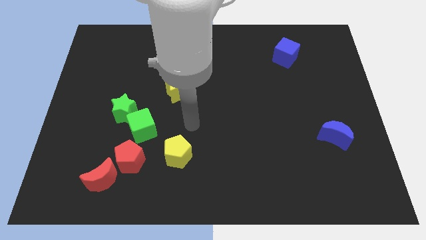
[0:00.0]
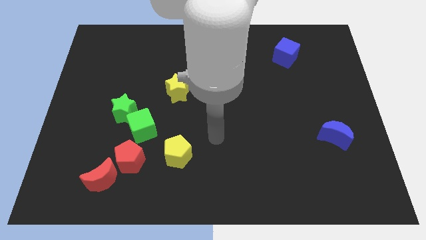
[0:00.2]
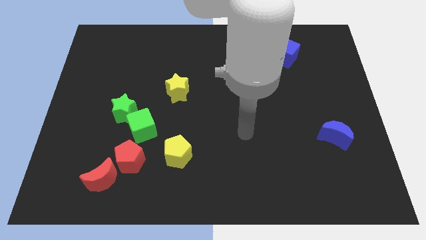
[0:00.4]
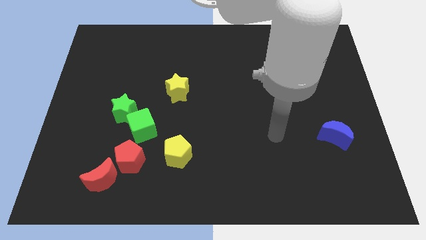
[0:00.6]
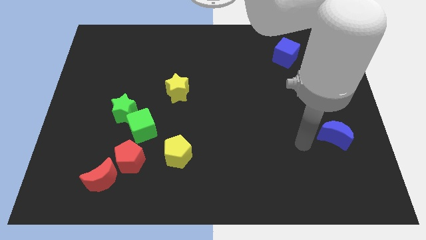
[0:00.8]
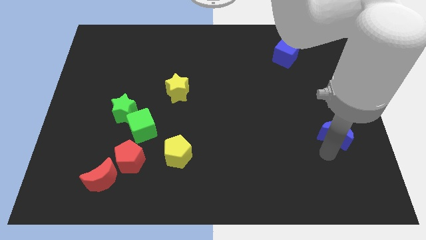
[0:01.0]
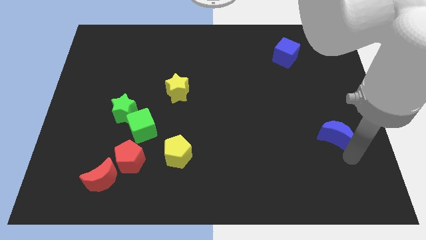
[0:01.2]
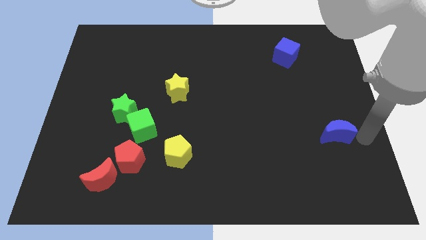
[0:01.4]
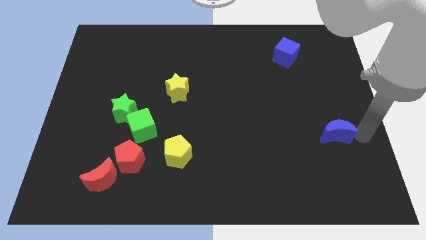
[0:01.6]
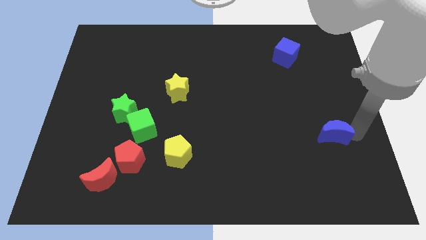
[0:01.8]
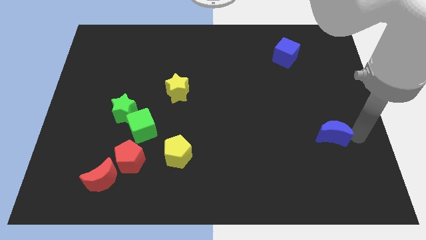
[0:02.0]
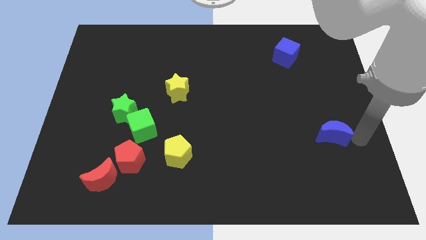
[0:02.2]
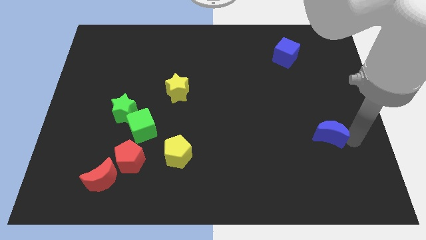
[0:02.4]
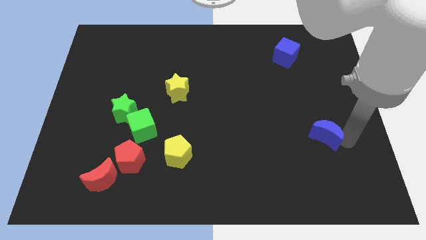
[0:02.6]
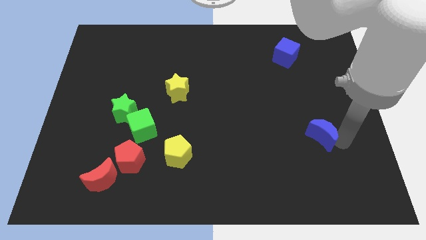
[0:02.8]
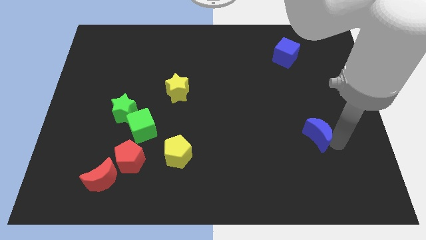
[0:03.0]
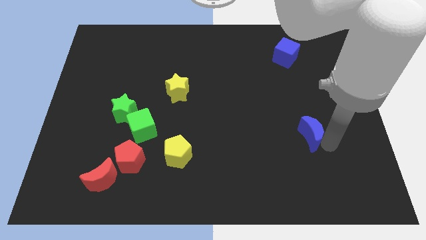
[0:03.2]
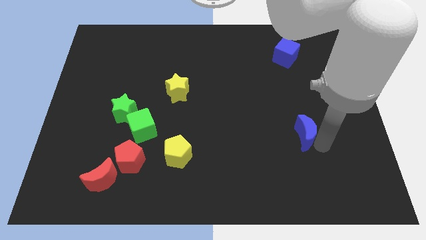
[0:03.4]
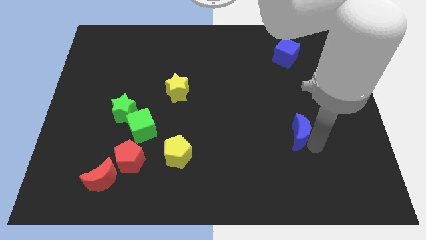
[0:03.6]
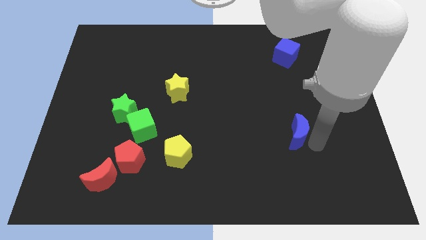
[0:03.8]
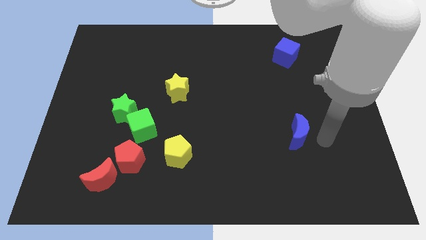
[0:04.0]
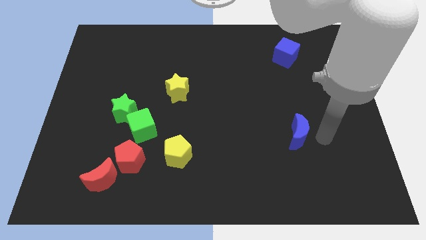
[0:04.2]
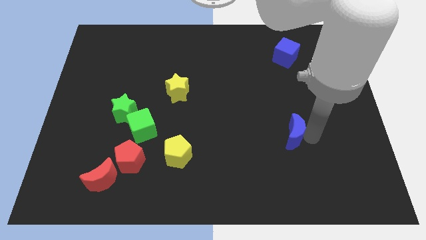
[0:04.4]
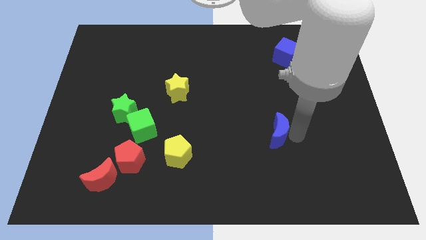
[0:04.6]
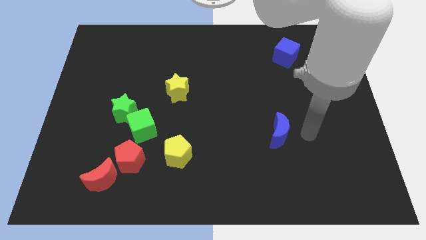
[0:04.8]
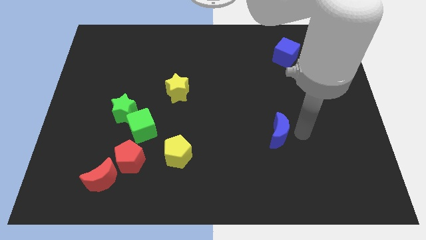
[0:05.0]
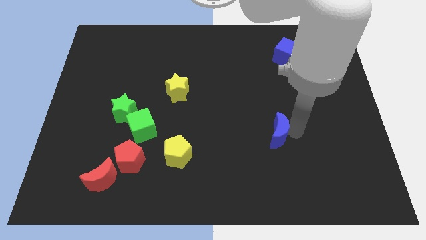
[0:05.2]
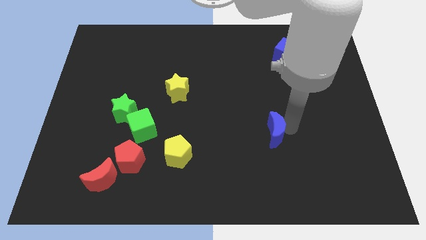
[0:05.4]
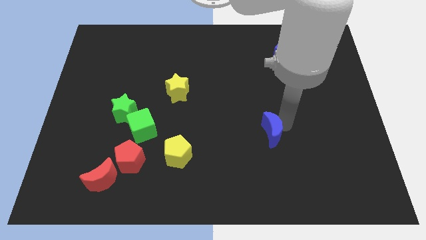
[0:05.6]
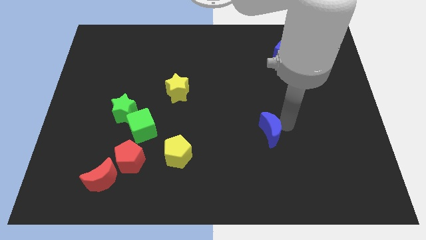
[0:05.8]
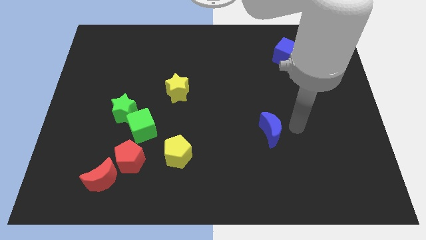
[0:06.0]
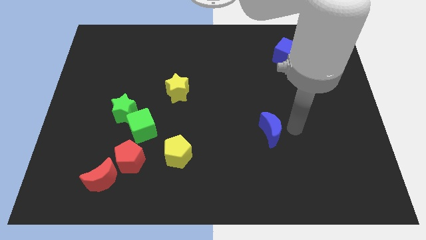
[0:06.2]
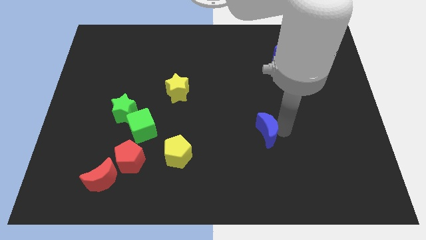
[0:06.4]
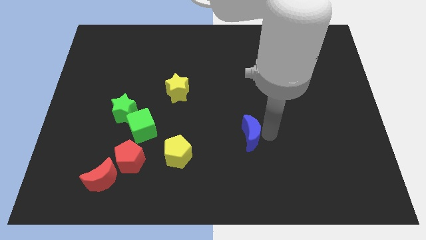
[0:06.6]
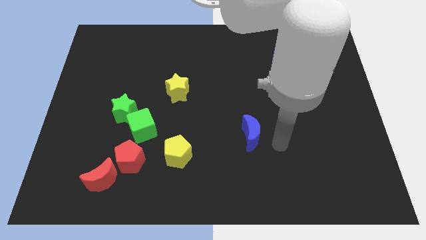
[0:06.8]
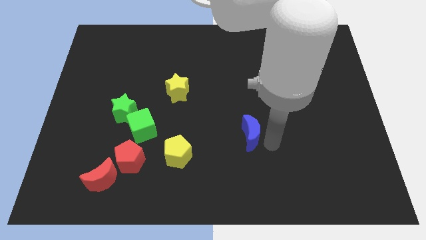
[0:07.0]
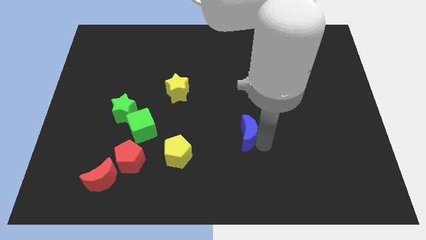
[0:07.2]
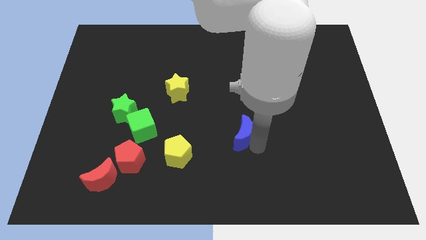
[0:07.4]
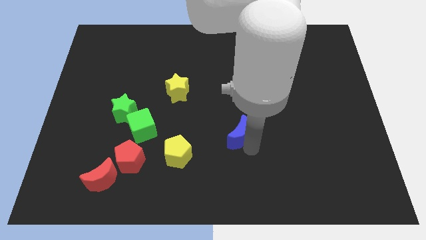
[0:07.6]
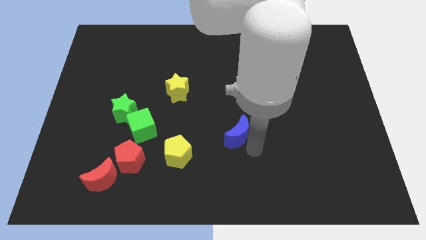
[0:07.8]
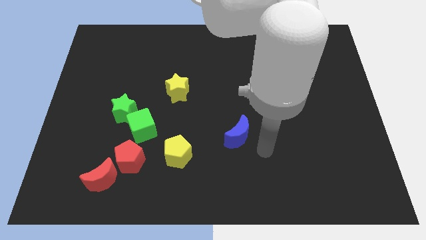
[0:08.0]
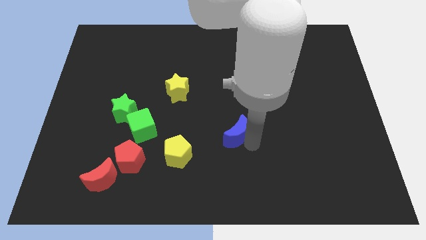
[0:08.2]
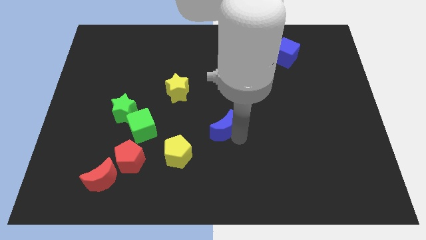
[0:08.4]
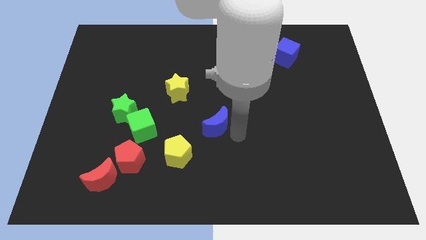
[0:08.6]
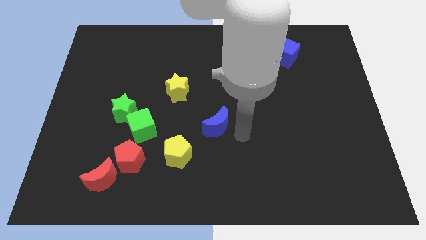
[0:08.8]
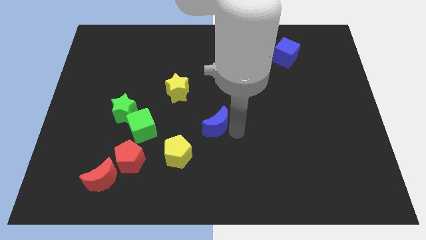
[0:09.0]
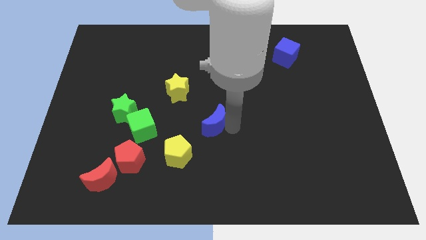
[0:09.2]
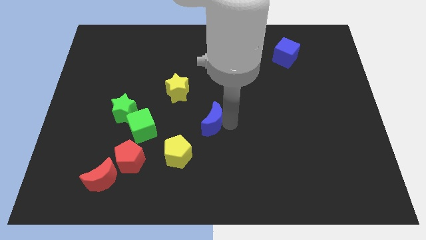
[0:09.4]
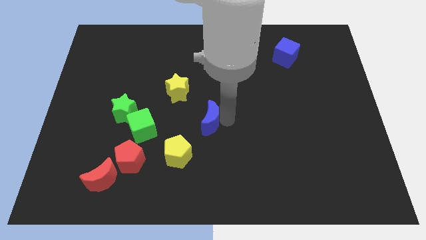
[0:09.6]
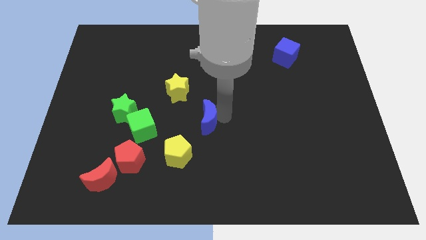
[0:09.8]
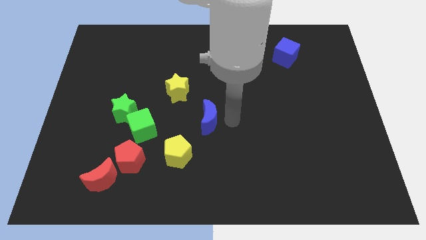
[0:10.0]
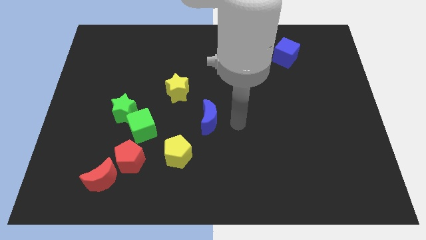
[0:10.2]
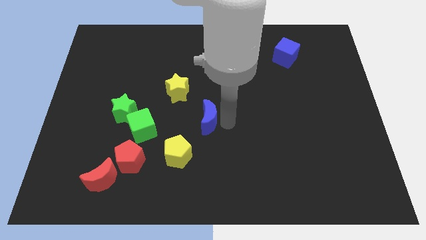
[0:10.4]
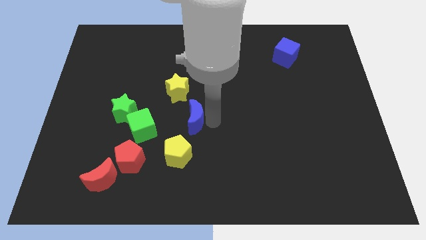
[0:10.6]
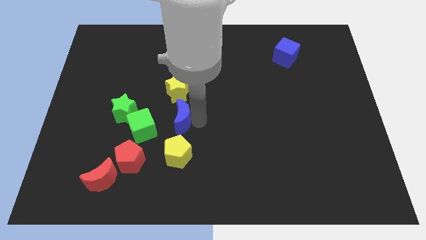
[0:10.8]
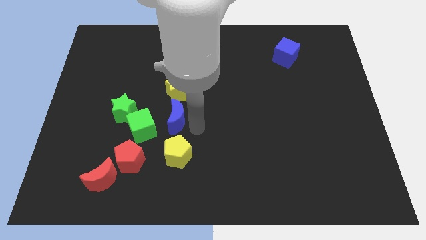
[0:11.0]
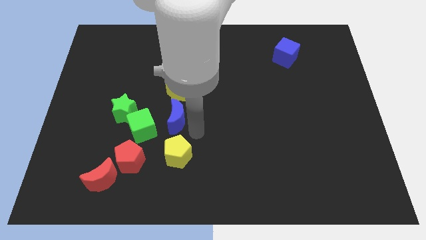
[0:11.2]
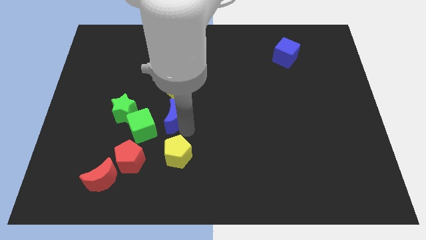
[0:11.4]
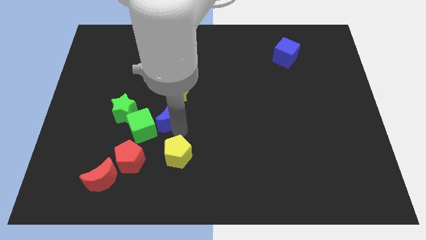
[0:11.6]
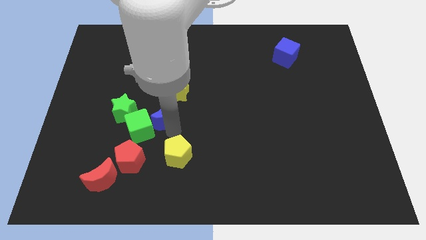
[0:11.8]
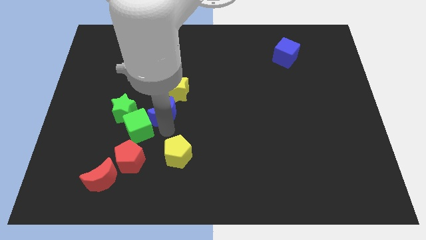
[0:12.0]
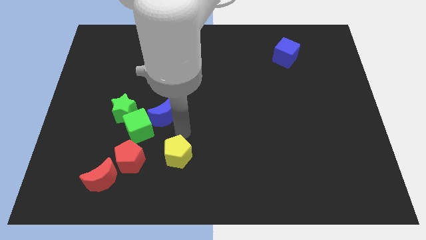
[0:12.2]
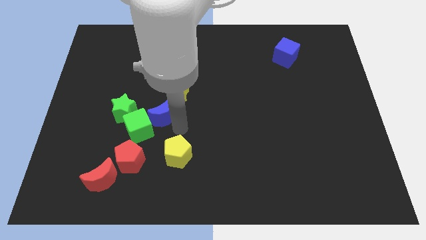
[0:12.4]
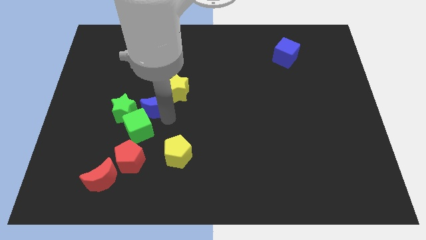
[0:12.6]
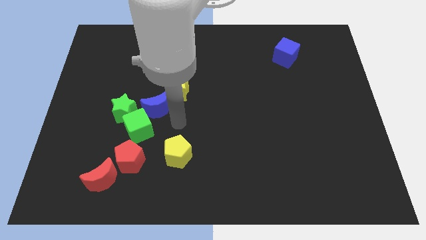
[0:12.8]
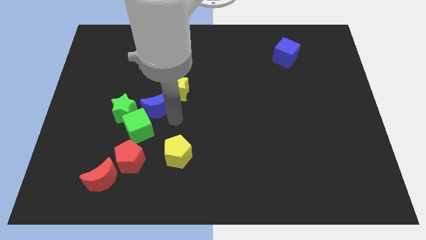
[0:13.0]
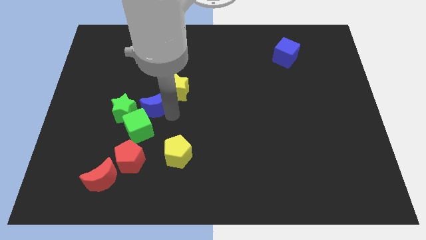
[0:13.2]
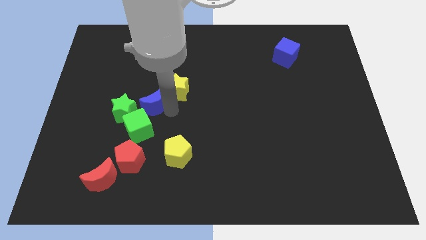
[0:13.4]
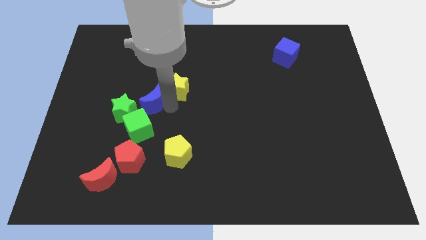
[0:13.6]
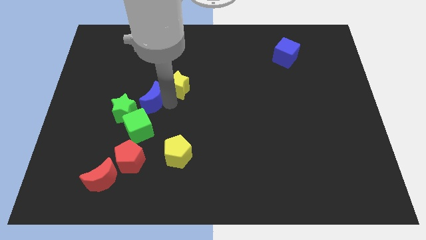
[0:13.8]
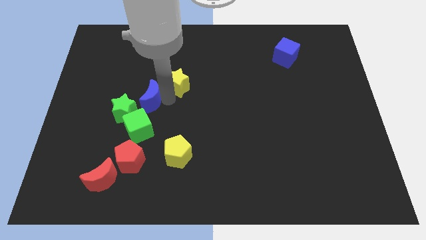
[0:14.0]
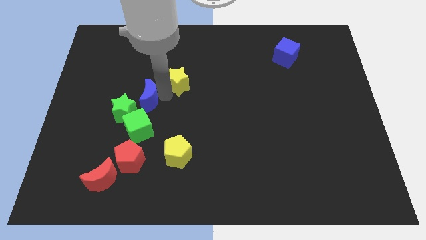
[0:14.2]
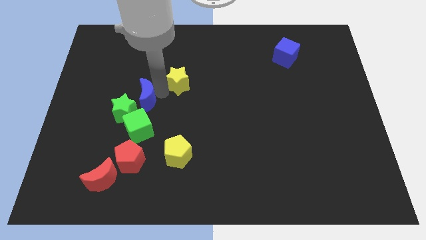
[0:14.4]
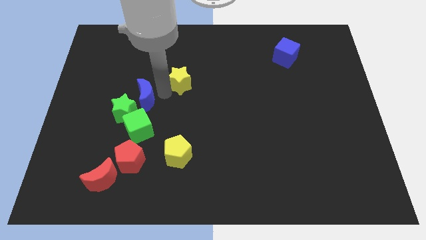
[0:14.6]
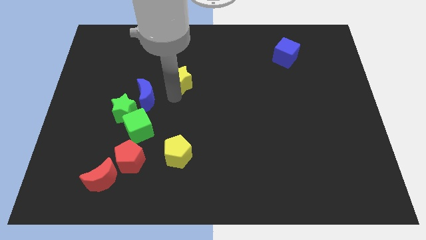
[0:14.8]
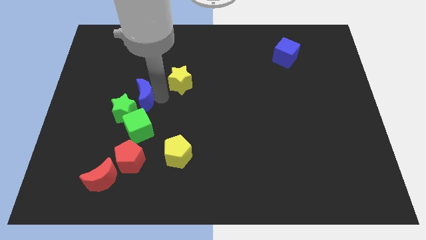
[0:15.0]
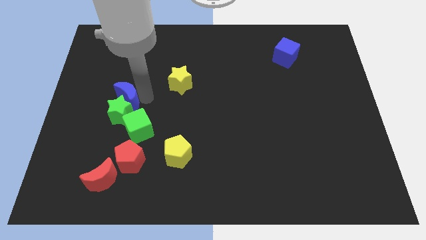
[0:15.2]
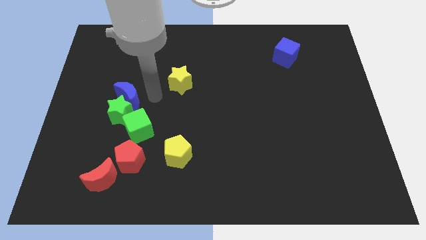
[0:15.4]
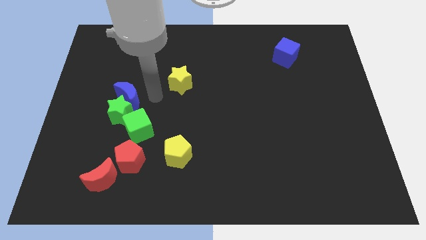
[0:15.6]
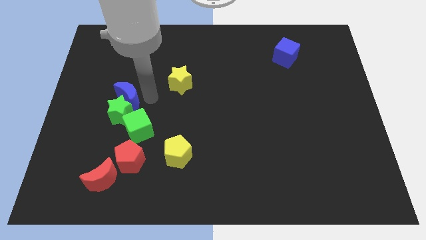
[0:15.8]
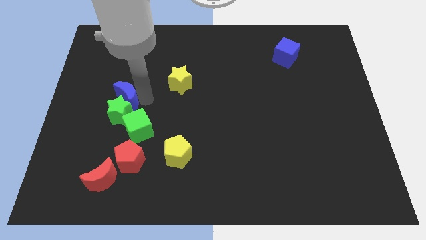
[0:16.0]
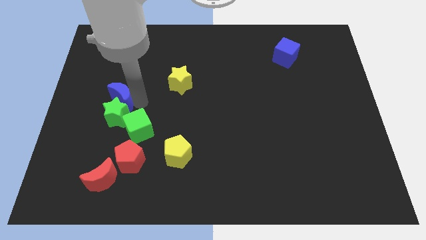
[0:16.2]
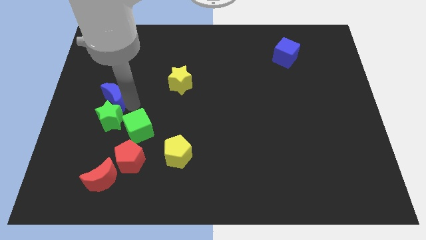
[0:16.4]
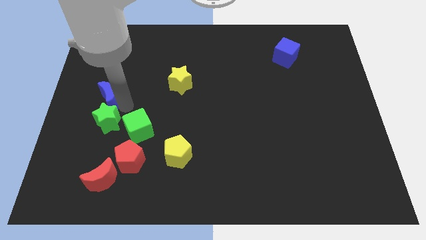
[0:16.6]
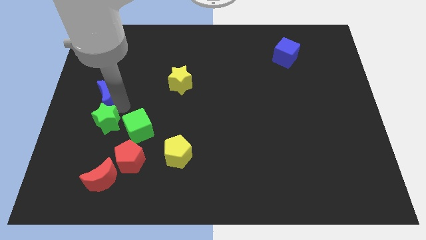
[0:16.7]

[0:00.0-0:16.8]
put the blue moon to the left side of the board
